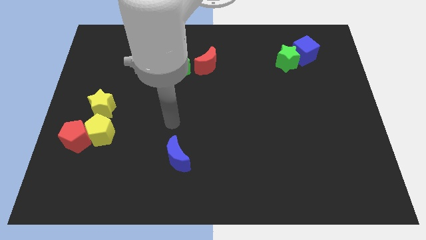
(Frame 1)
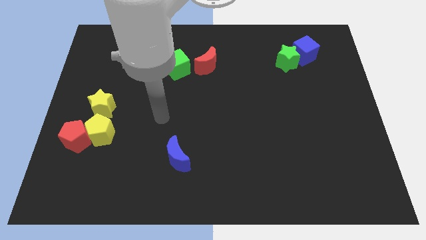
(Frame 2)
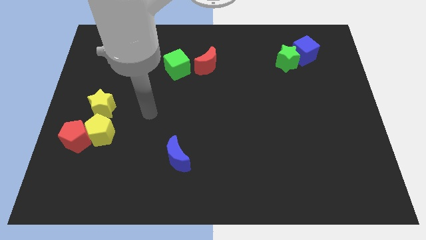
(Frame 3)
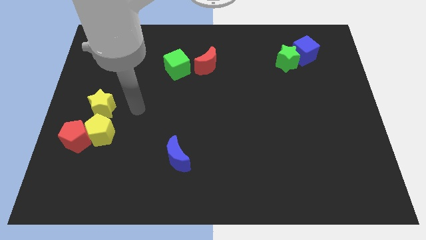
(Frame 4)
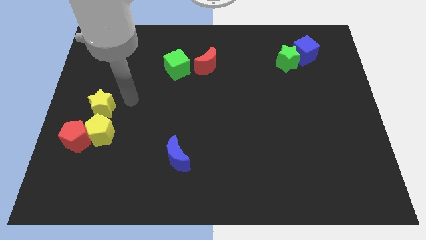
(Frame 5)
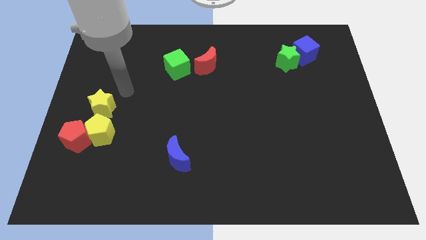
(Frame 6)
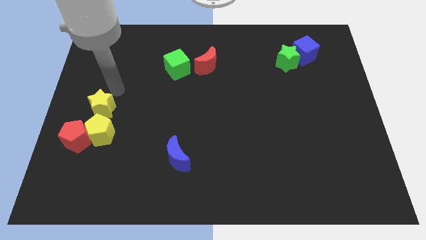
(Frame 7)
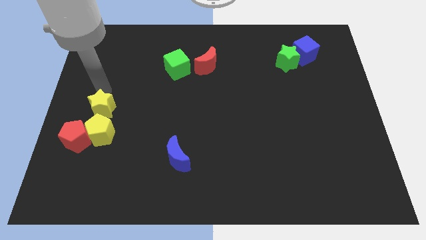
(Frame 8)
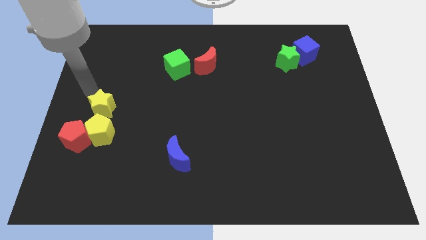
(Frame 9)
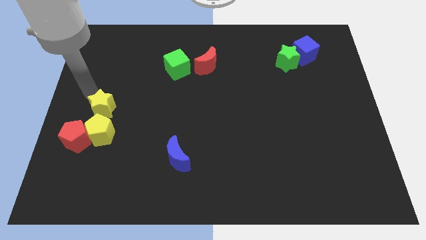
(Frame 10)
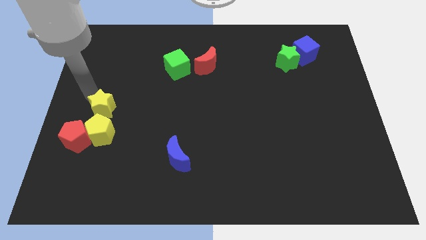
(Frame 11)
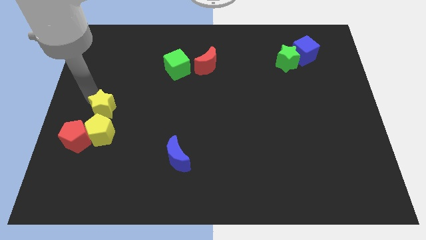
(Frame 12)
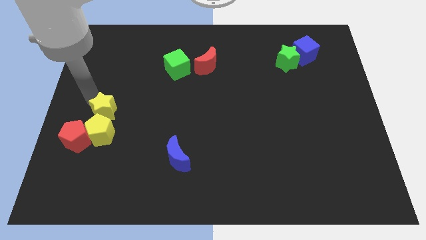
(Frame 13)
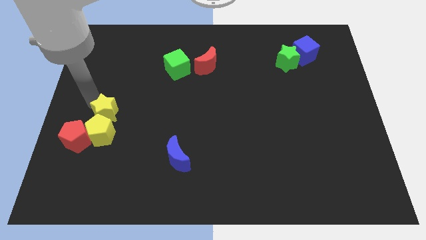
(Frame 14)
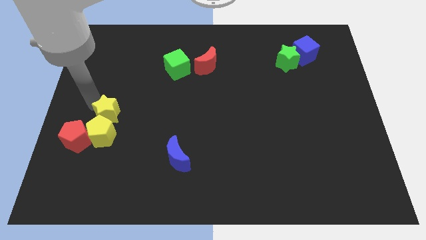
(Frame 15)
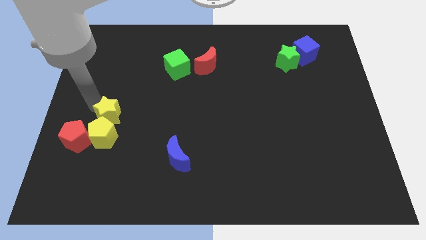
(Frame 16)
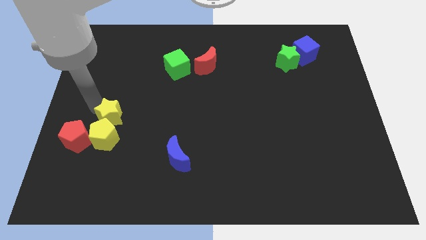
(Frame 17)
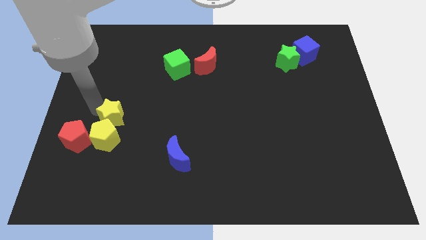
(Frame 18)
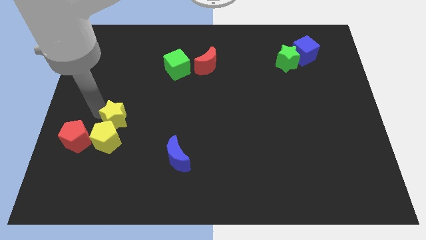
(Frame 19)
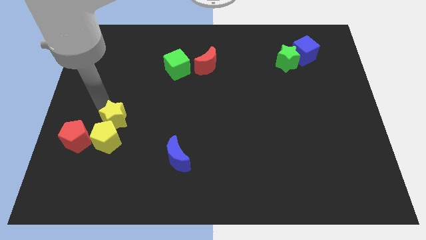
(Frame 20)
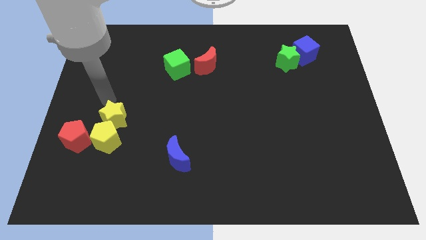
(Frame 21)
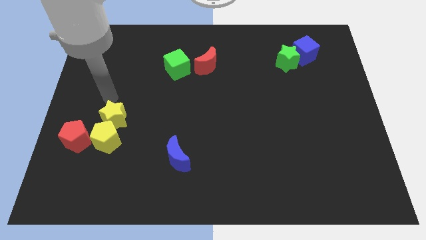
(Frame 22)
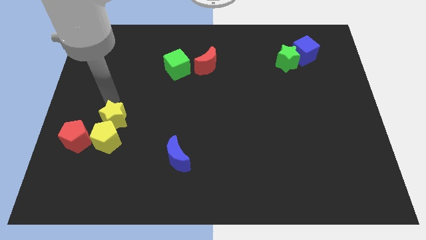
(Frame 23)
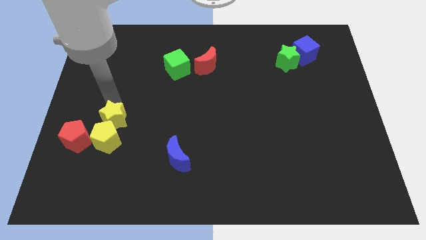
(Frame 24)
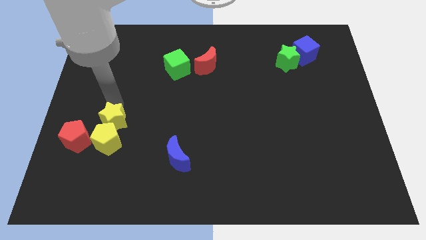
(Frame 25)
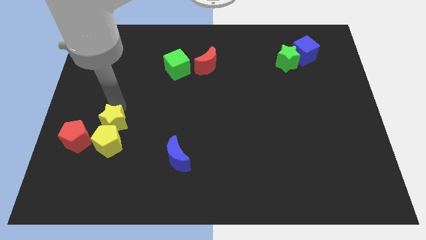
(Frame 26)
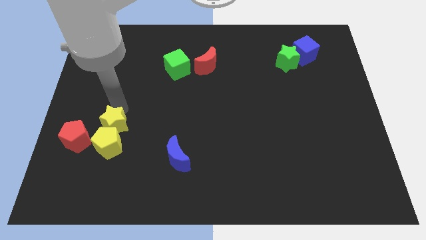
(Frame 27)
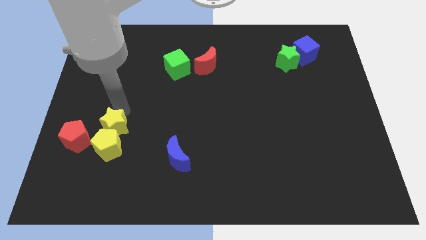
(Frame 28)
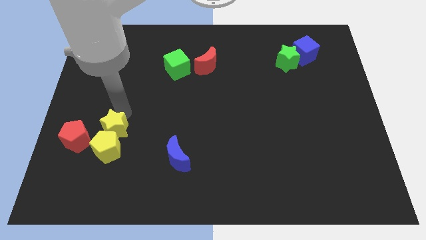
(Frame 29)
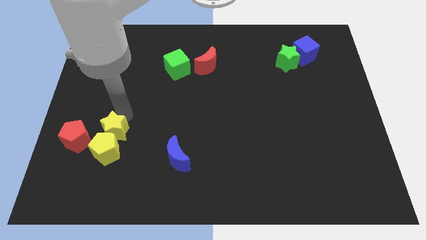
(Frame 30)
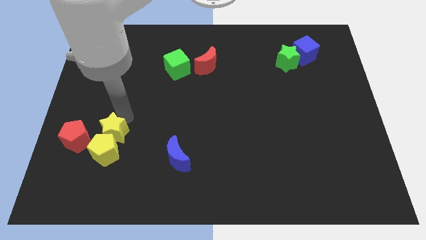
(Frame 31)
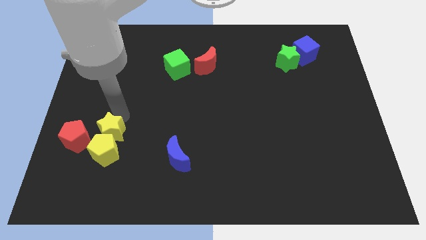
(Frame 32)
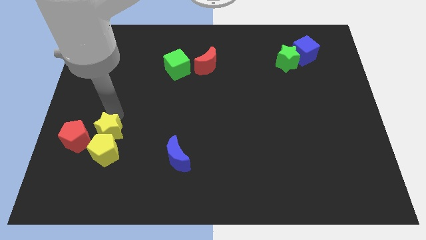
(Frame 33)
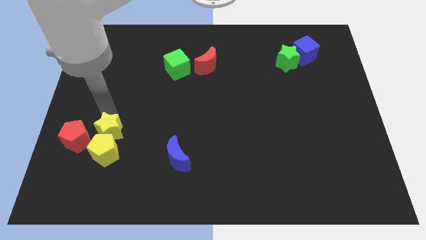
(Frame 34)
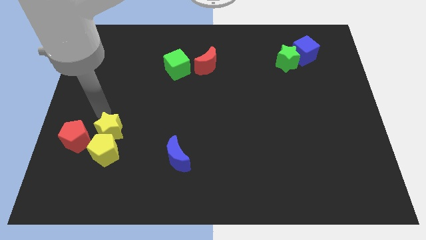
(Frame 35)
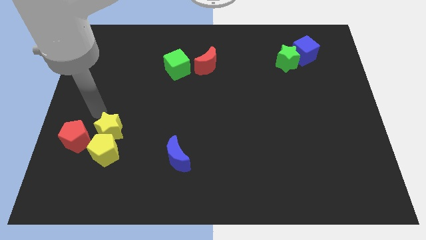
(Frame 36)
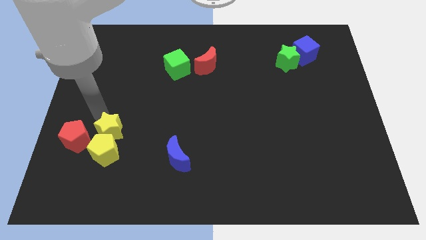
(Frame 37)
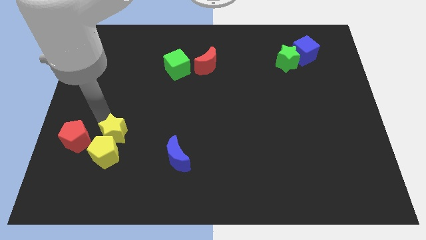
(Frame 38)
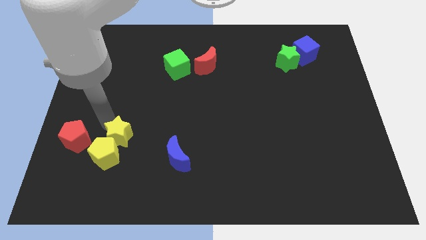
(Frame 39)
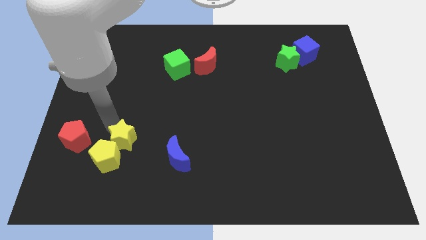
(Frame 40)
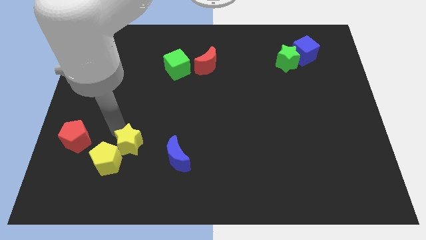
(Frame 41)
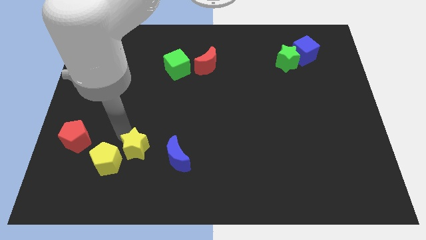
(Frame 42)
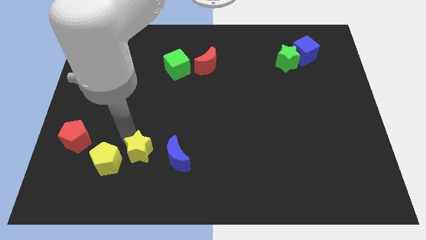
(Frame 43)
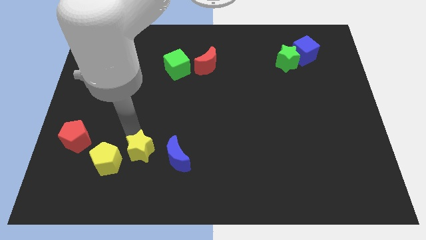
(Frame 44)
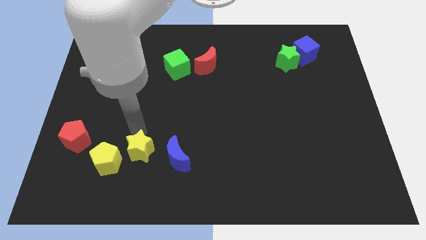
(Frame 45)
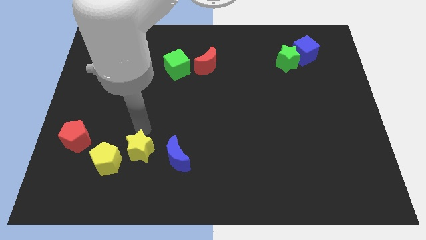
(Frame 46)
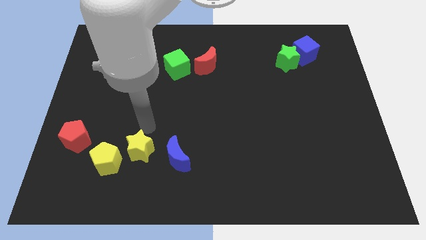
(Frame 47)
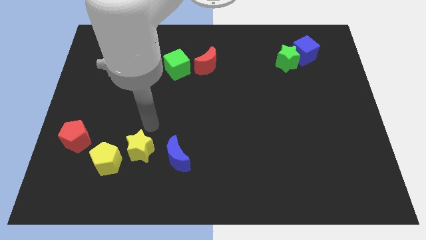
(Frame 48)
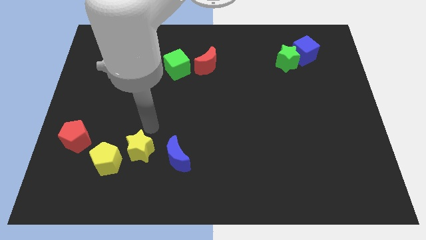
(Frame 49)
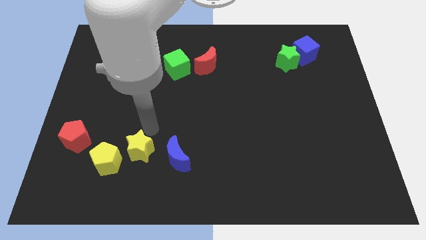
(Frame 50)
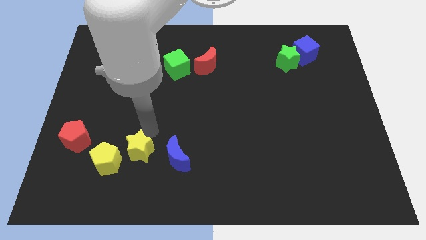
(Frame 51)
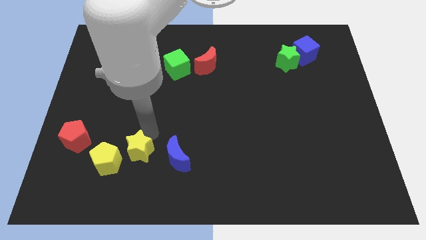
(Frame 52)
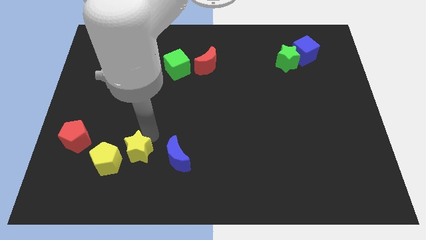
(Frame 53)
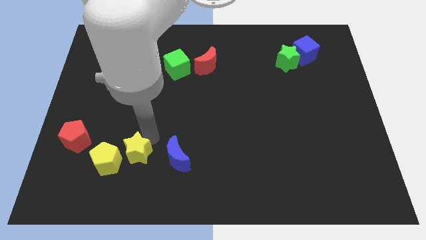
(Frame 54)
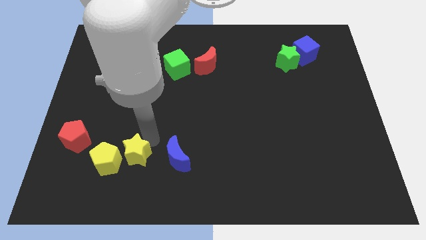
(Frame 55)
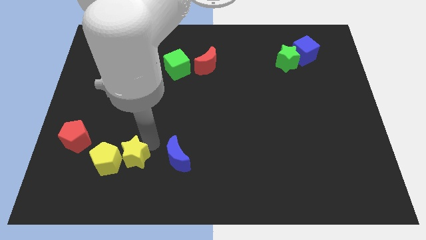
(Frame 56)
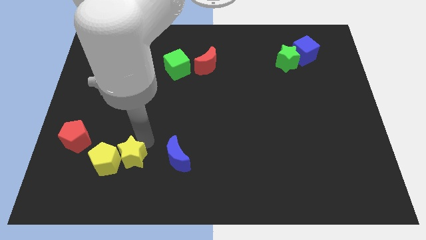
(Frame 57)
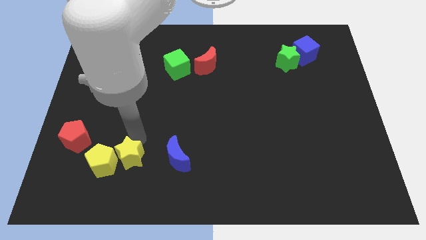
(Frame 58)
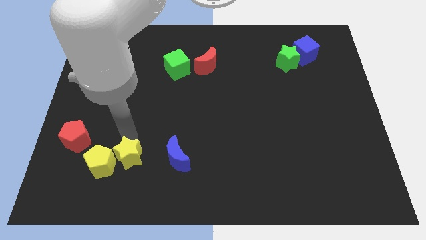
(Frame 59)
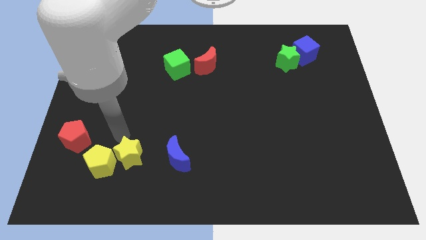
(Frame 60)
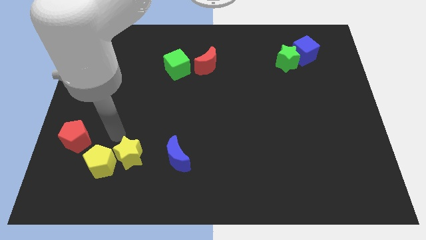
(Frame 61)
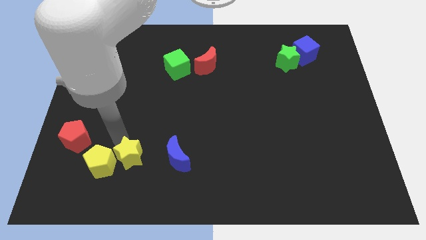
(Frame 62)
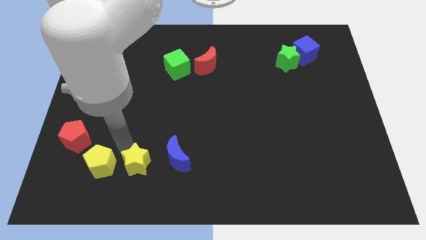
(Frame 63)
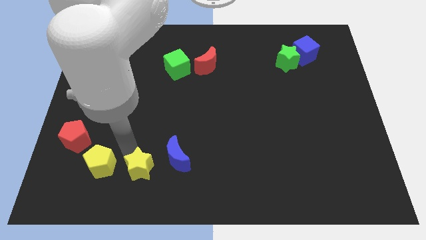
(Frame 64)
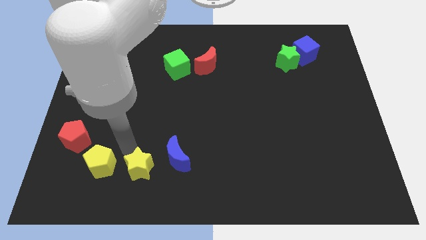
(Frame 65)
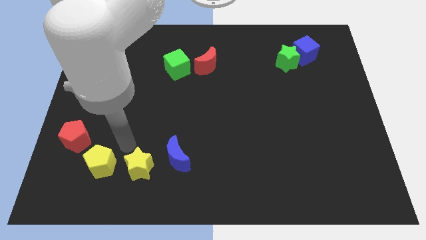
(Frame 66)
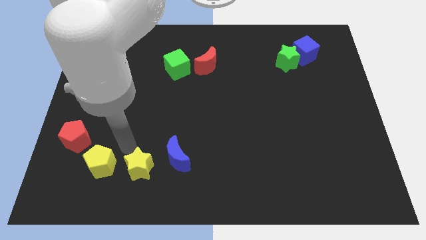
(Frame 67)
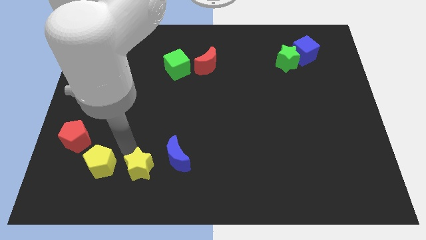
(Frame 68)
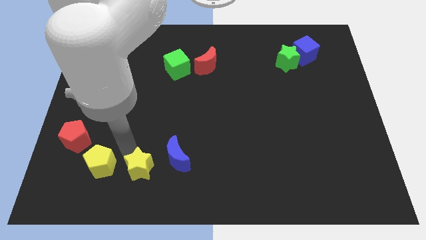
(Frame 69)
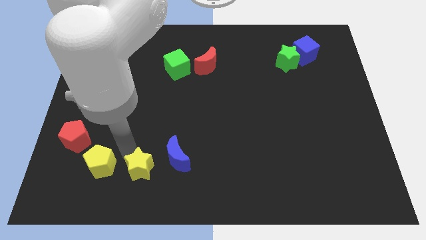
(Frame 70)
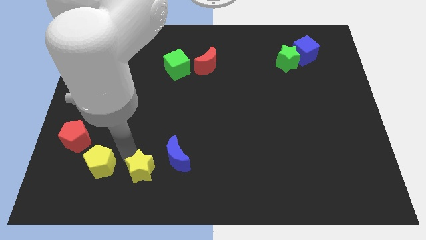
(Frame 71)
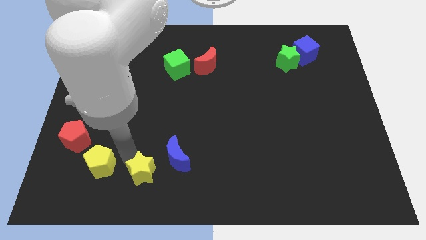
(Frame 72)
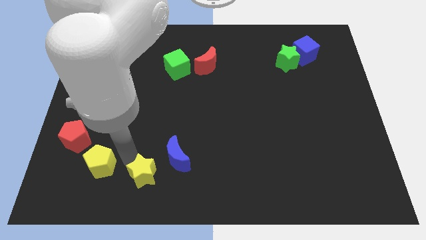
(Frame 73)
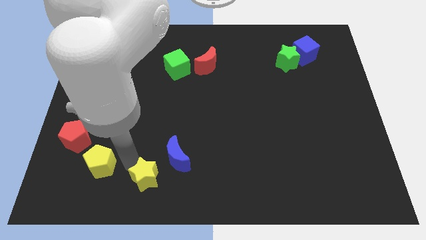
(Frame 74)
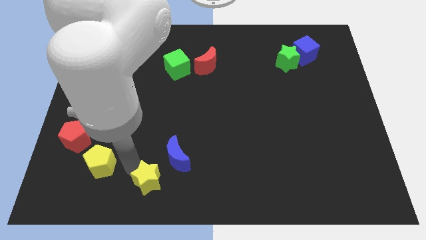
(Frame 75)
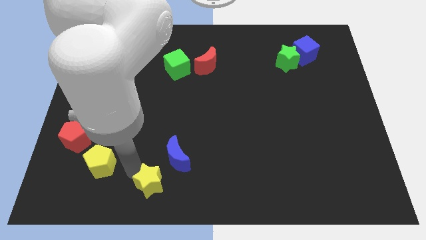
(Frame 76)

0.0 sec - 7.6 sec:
slide the yellow star to the bottom side
